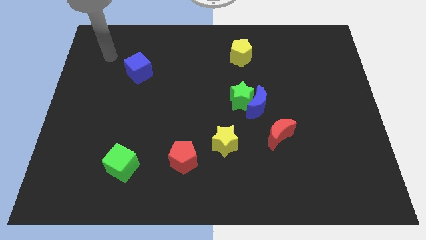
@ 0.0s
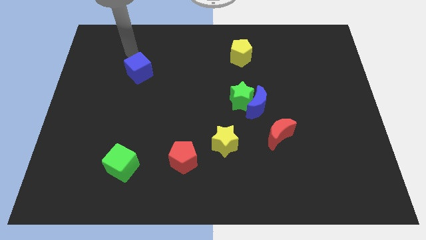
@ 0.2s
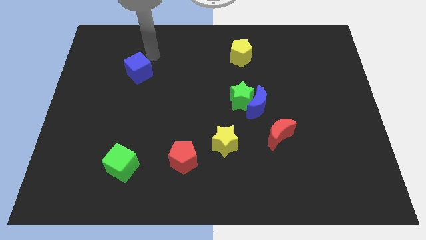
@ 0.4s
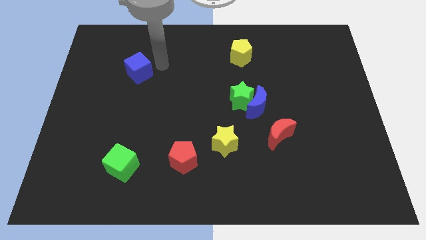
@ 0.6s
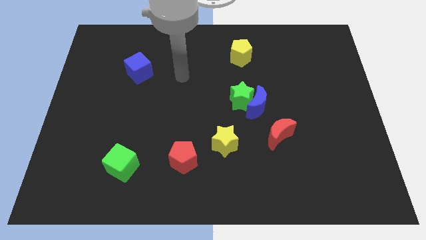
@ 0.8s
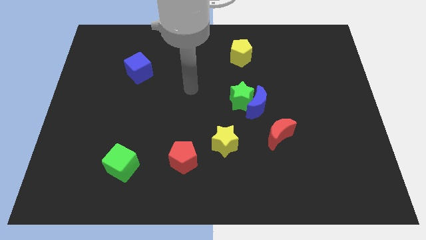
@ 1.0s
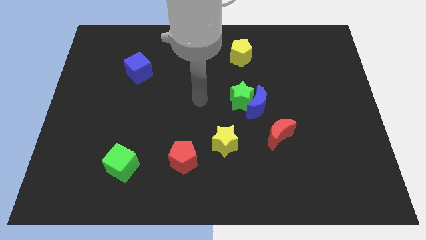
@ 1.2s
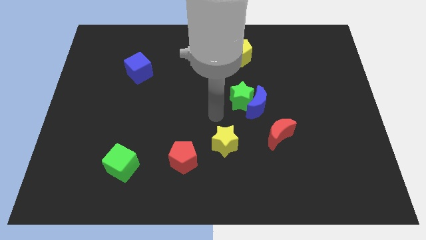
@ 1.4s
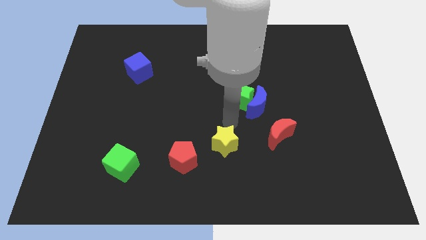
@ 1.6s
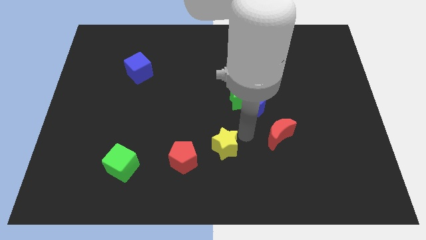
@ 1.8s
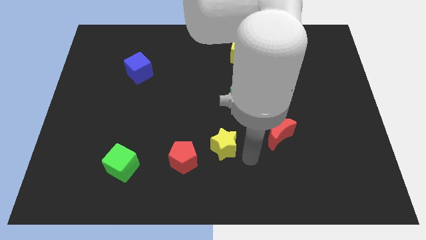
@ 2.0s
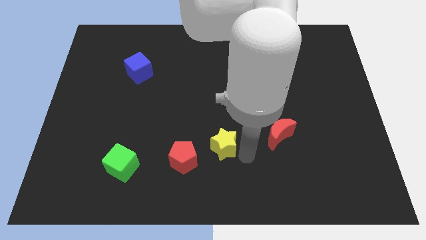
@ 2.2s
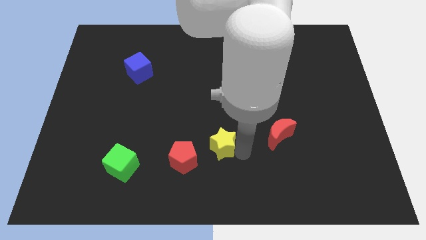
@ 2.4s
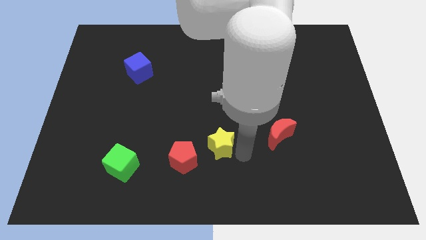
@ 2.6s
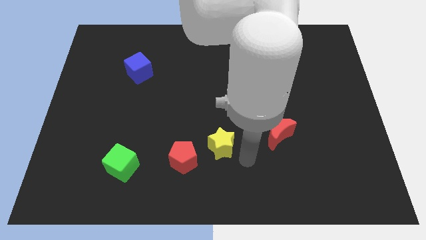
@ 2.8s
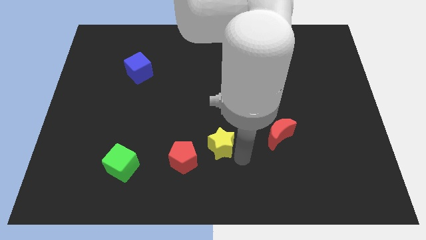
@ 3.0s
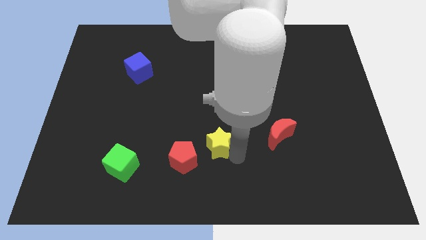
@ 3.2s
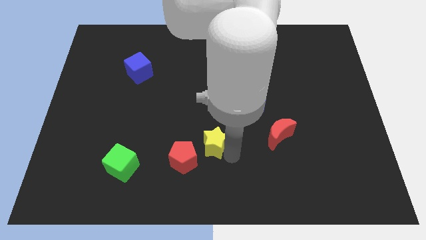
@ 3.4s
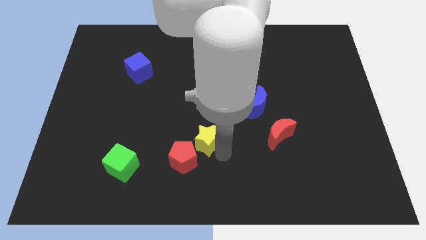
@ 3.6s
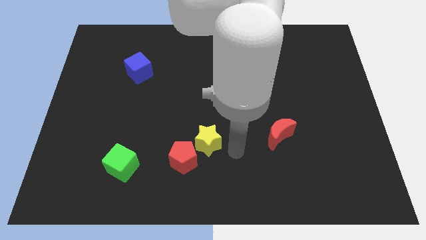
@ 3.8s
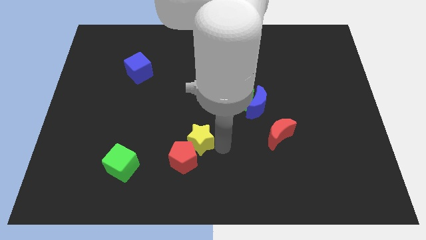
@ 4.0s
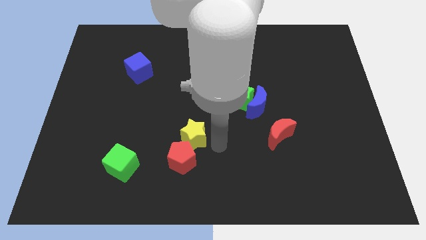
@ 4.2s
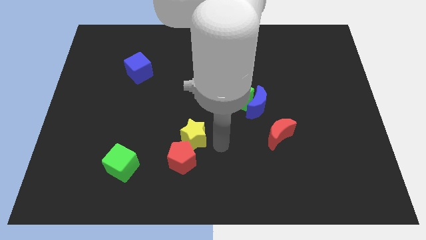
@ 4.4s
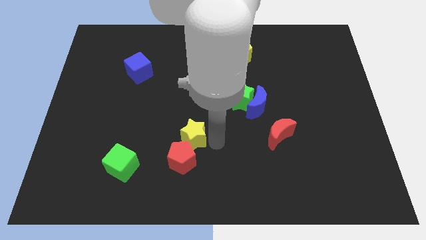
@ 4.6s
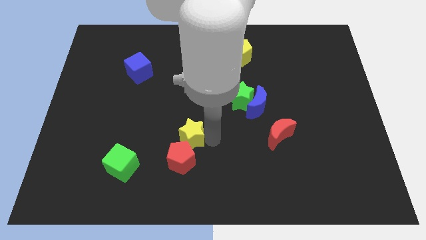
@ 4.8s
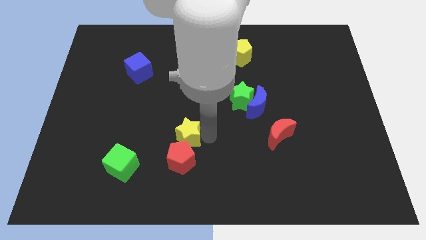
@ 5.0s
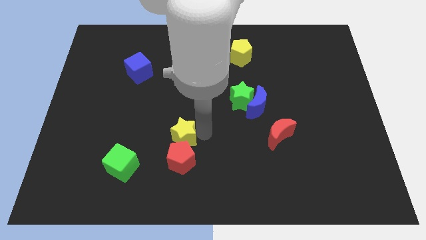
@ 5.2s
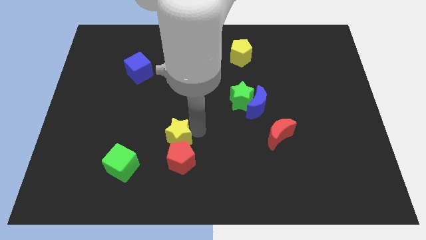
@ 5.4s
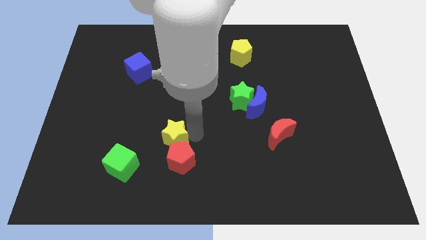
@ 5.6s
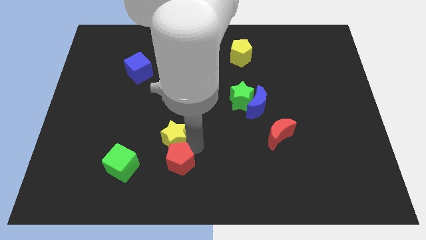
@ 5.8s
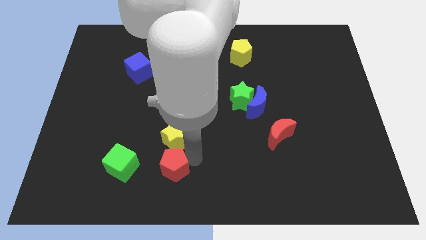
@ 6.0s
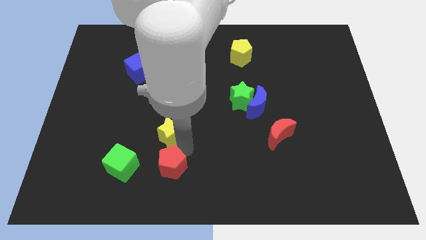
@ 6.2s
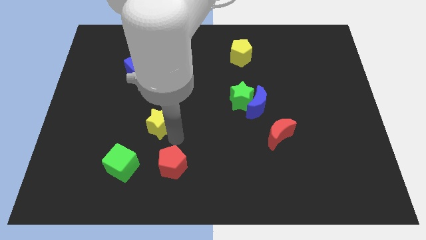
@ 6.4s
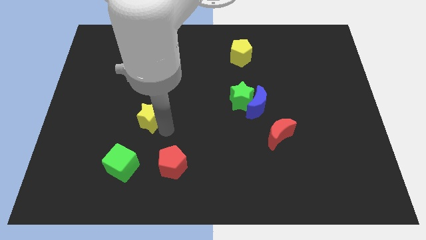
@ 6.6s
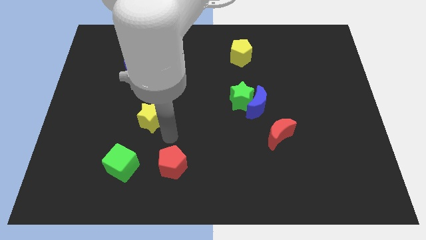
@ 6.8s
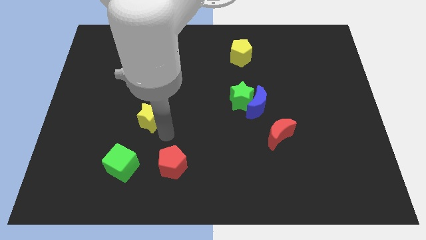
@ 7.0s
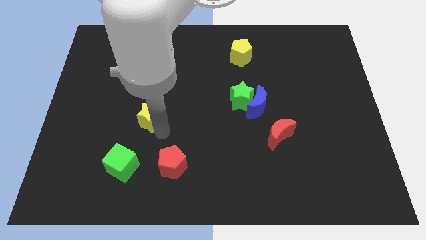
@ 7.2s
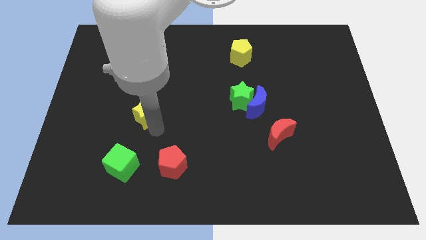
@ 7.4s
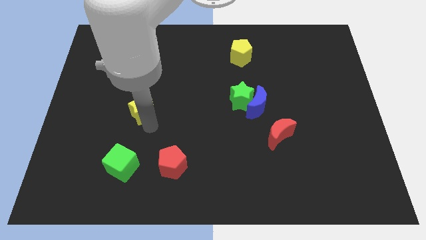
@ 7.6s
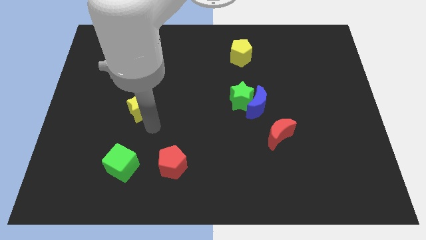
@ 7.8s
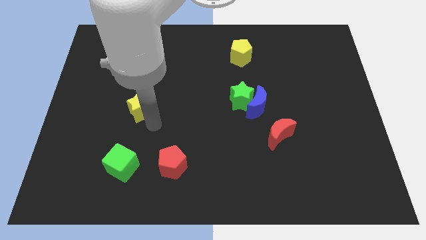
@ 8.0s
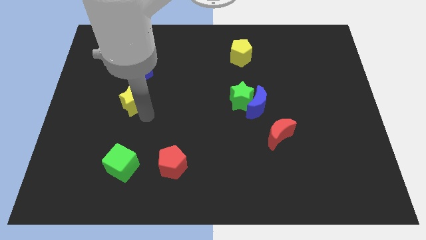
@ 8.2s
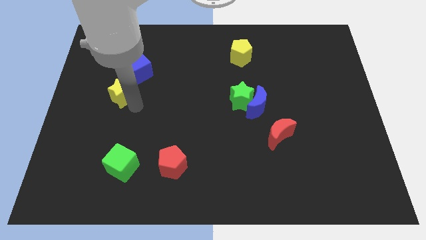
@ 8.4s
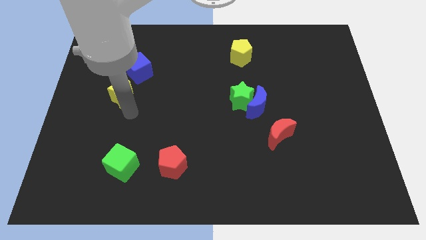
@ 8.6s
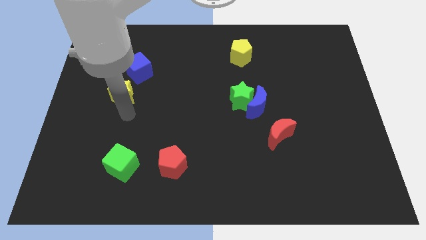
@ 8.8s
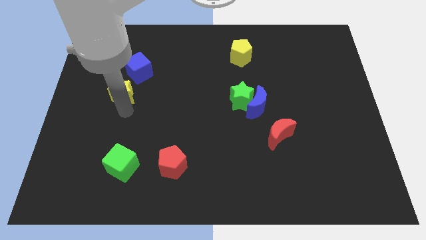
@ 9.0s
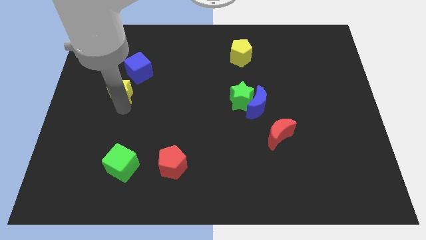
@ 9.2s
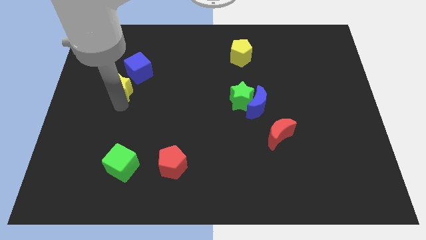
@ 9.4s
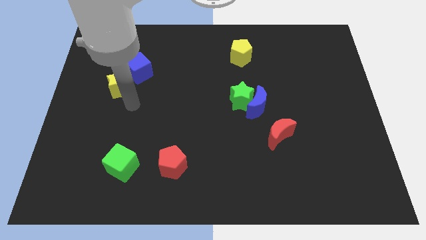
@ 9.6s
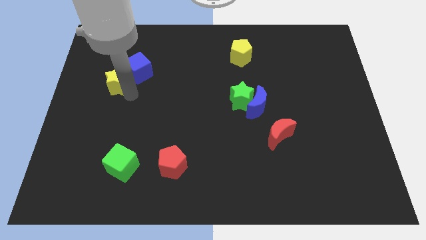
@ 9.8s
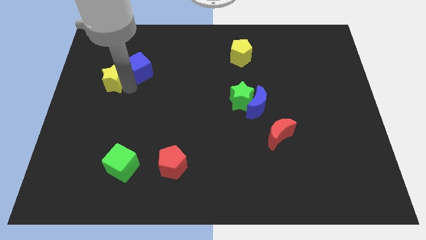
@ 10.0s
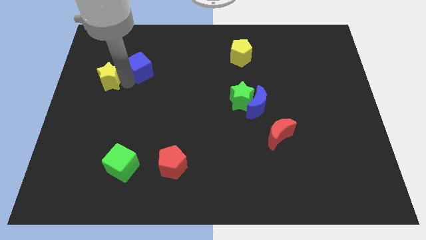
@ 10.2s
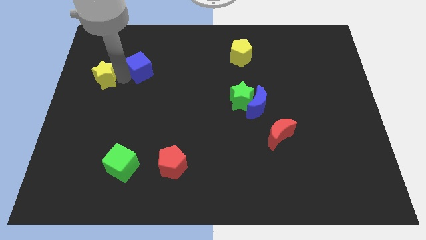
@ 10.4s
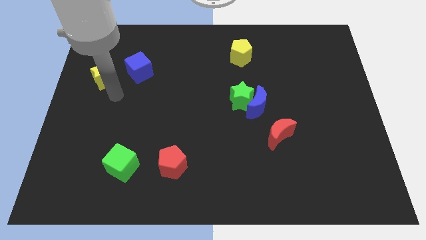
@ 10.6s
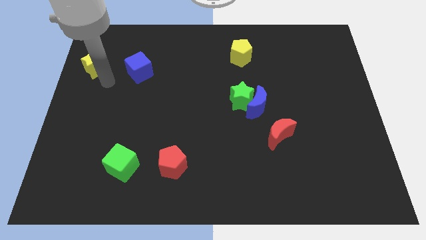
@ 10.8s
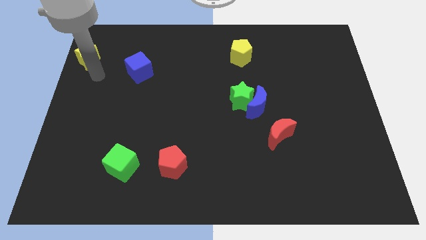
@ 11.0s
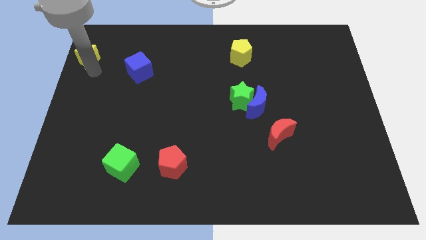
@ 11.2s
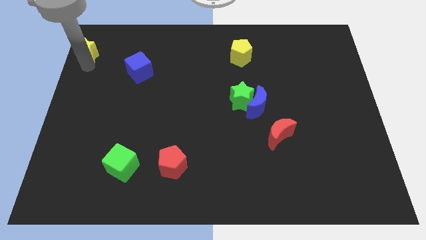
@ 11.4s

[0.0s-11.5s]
put the yellow star to the top left

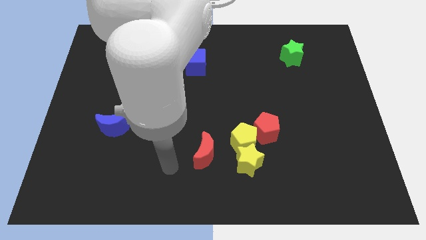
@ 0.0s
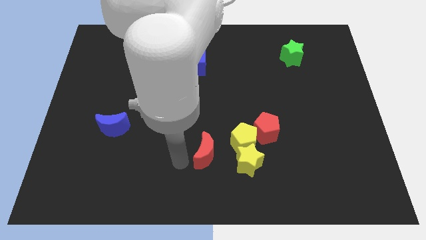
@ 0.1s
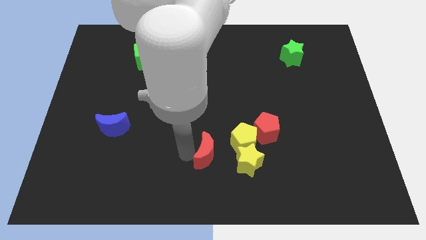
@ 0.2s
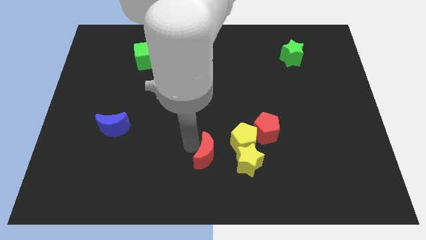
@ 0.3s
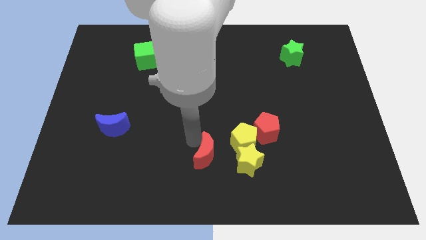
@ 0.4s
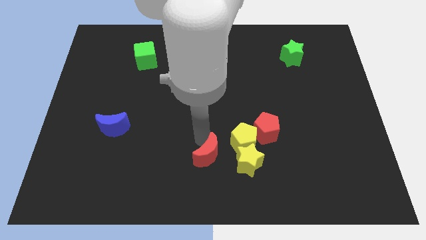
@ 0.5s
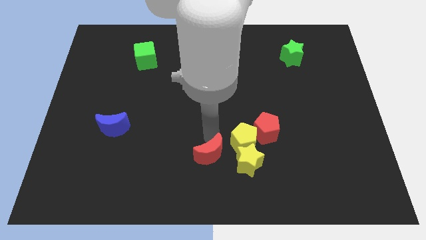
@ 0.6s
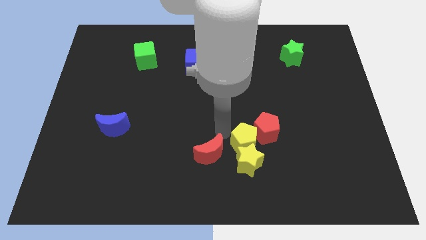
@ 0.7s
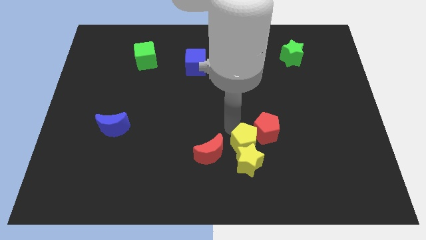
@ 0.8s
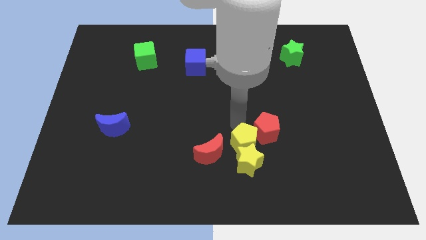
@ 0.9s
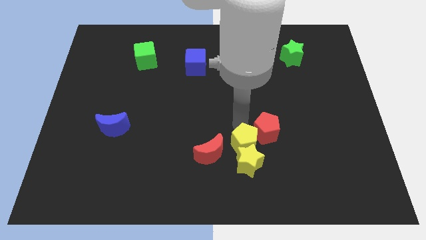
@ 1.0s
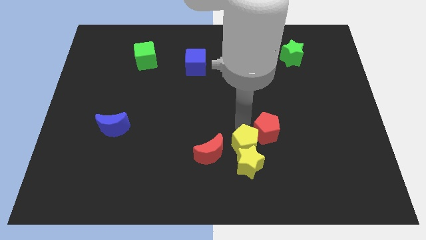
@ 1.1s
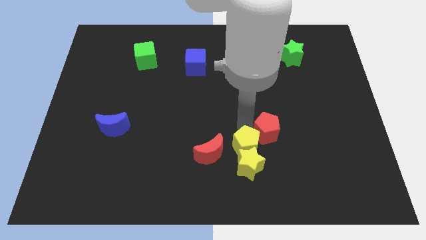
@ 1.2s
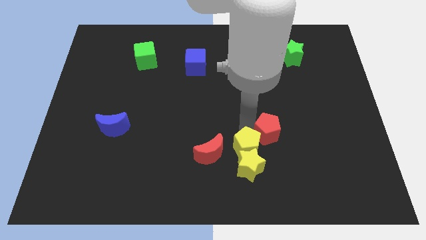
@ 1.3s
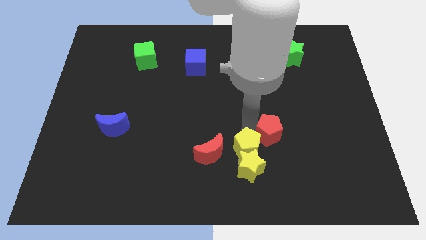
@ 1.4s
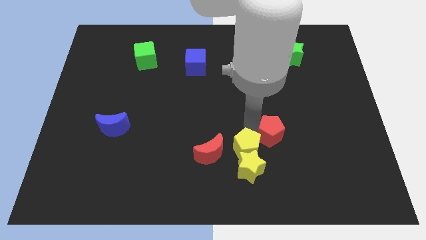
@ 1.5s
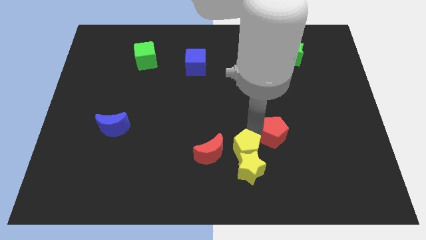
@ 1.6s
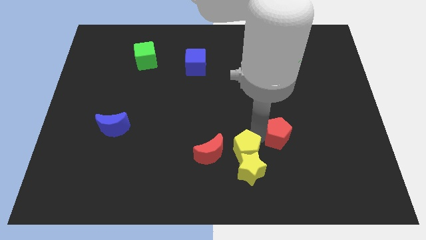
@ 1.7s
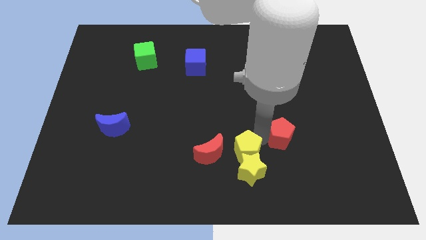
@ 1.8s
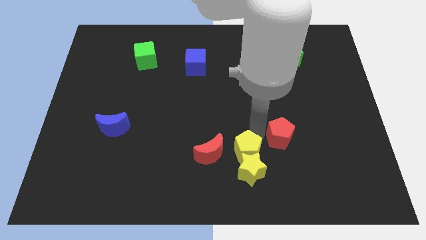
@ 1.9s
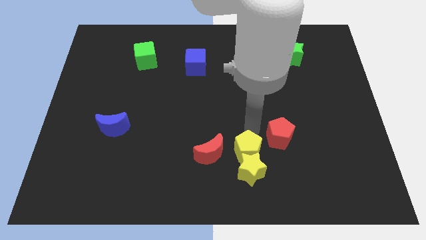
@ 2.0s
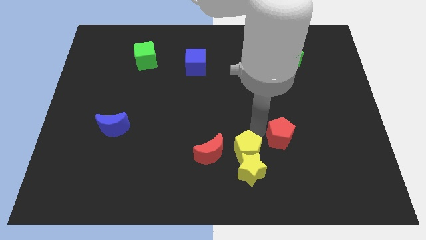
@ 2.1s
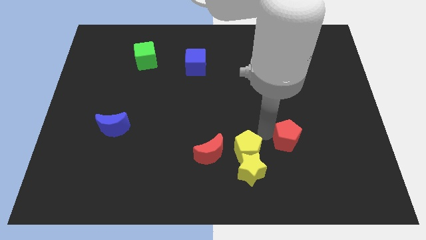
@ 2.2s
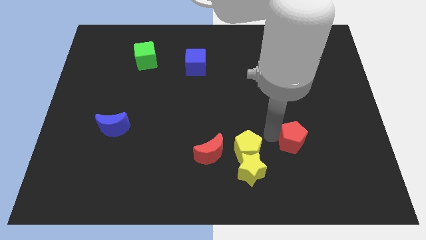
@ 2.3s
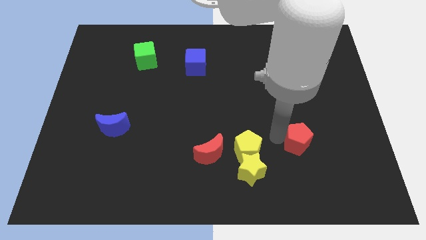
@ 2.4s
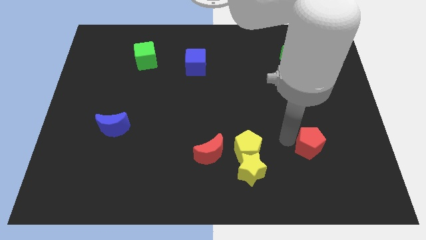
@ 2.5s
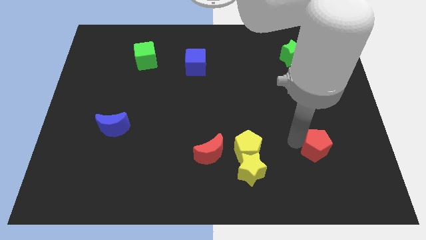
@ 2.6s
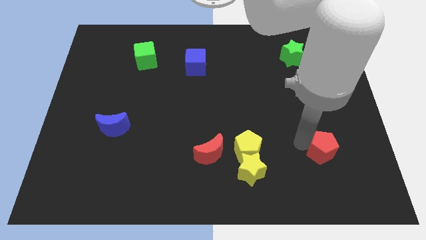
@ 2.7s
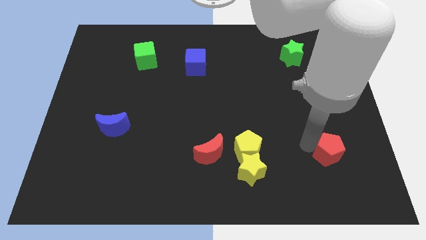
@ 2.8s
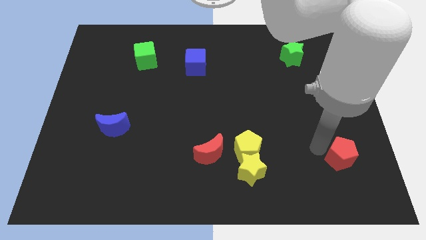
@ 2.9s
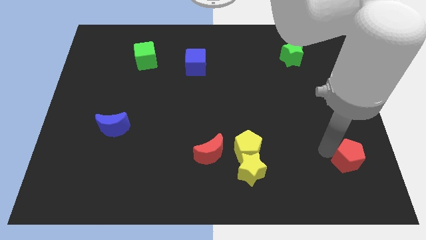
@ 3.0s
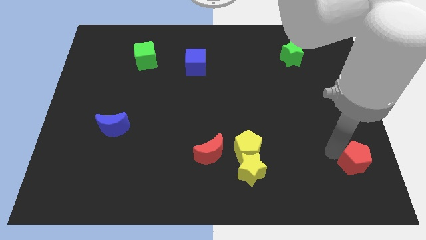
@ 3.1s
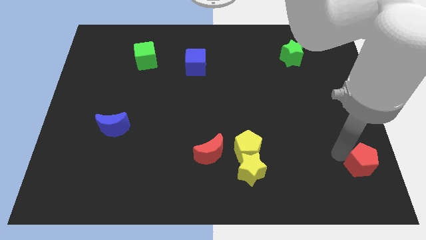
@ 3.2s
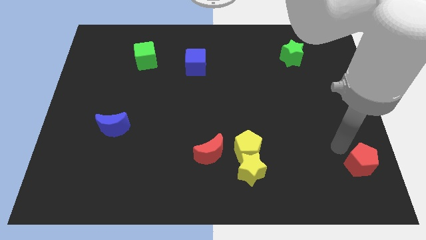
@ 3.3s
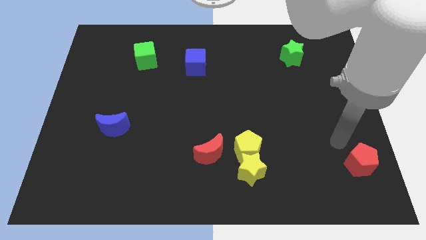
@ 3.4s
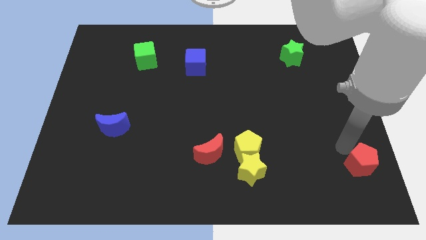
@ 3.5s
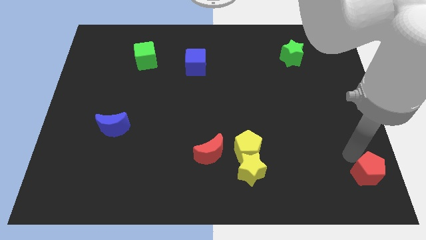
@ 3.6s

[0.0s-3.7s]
slide the red pentagon to the lower right corner
